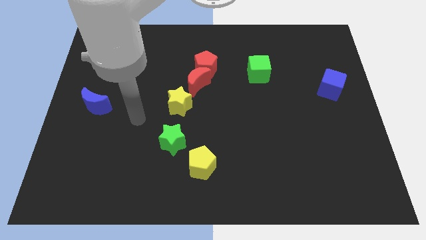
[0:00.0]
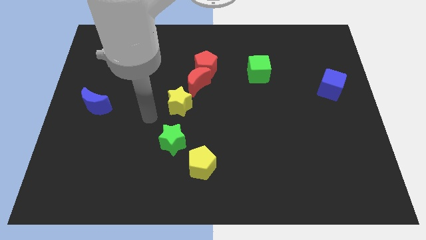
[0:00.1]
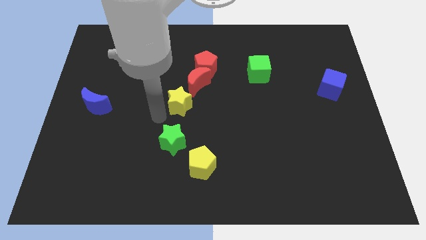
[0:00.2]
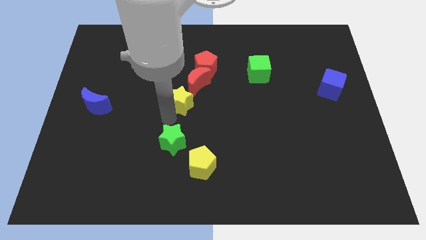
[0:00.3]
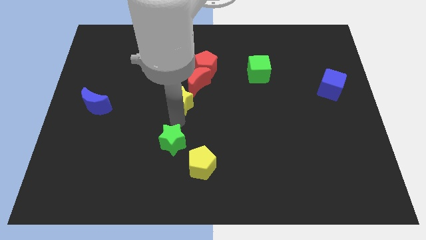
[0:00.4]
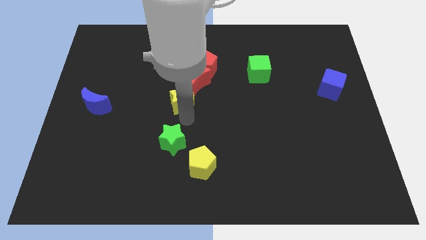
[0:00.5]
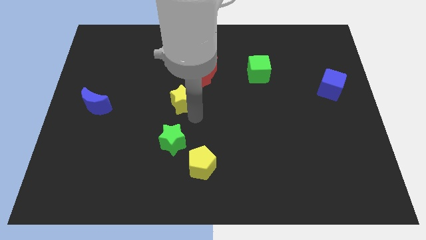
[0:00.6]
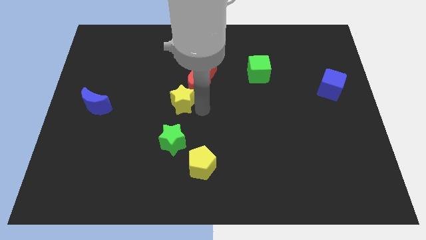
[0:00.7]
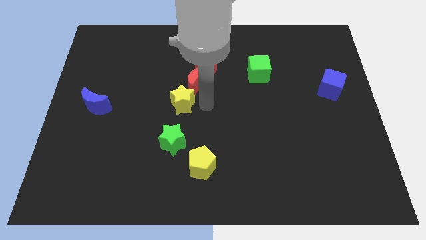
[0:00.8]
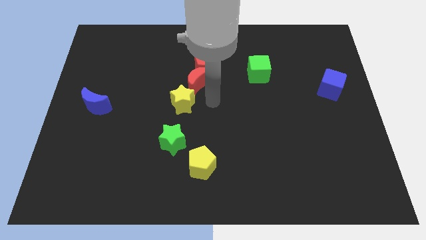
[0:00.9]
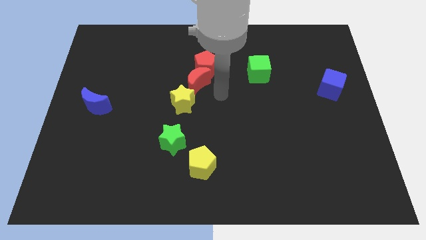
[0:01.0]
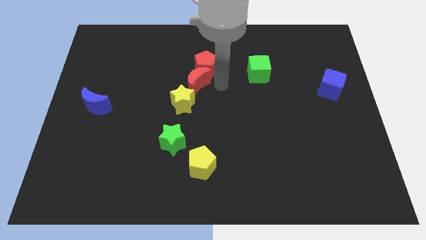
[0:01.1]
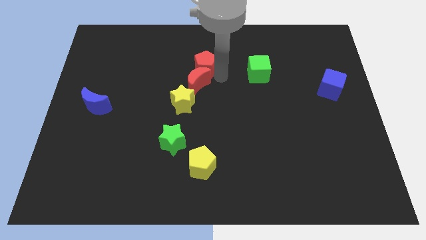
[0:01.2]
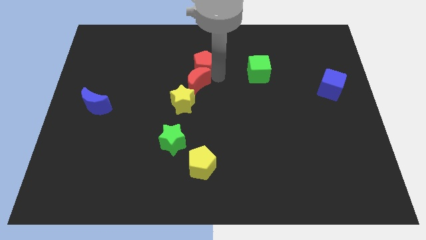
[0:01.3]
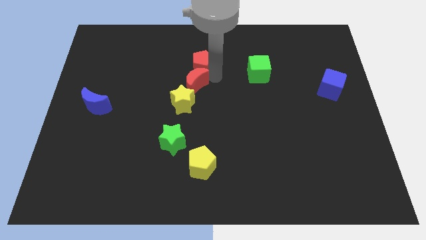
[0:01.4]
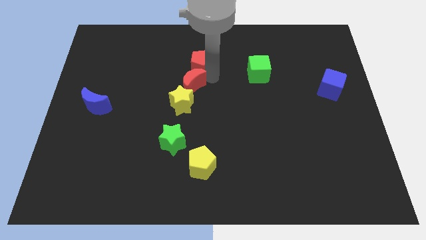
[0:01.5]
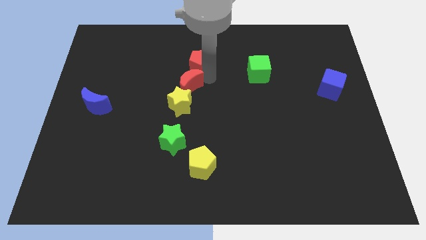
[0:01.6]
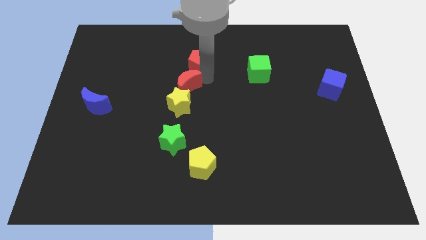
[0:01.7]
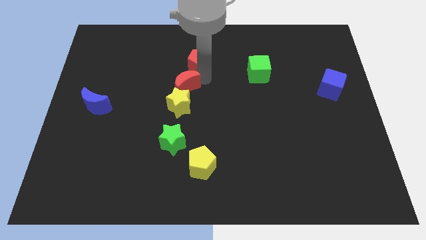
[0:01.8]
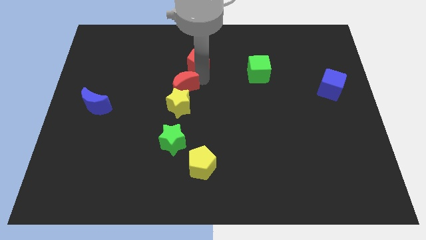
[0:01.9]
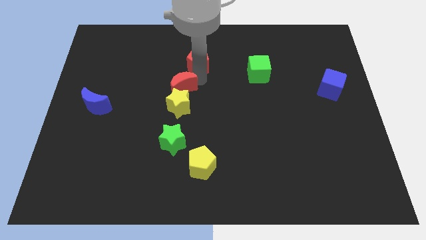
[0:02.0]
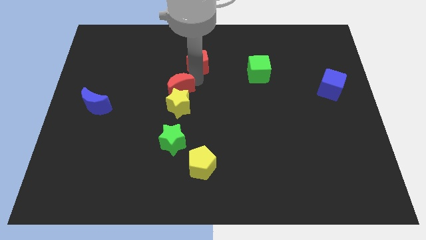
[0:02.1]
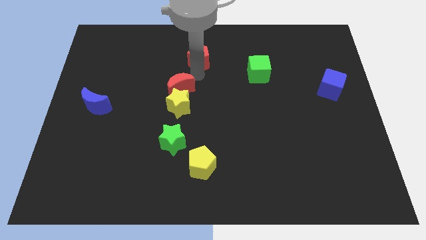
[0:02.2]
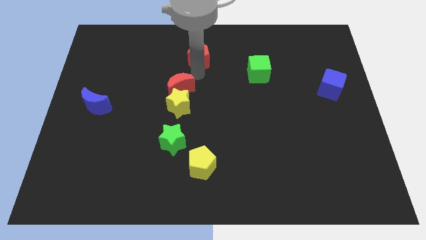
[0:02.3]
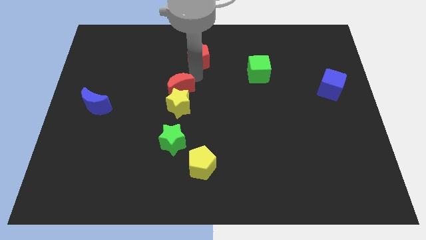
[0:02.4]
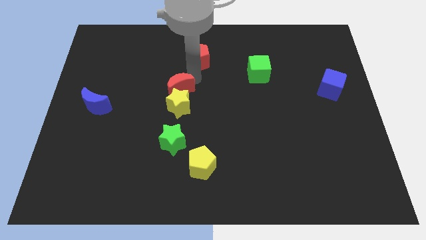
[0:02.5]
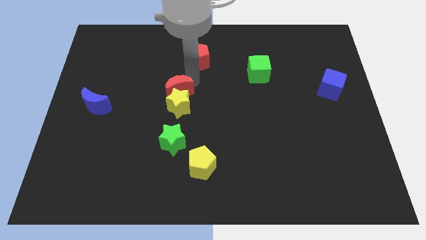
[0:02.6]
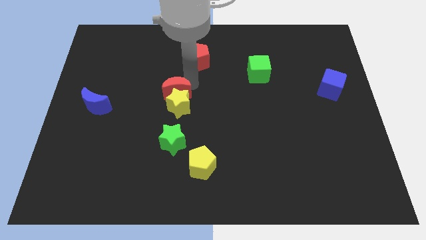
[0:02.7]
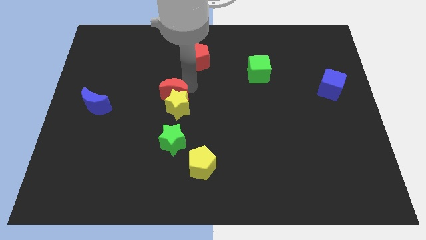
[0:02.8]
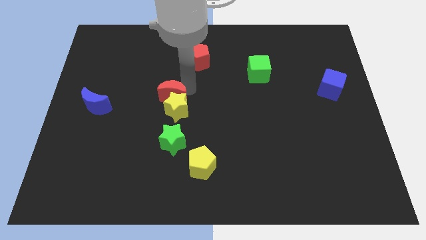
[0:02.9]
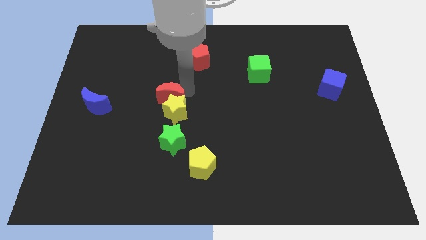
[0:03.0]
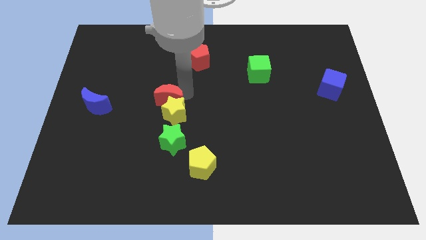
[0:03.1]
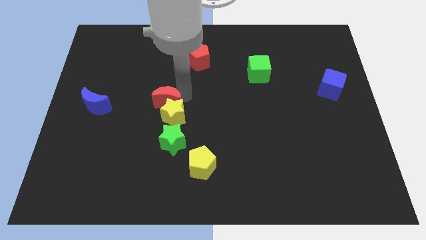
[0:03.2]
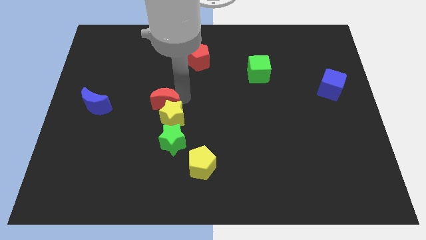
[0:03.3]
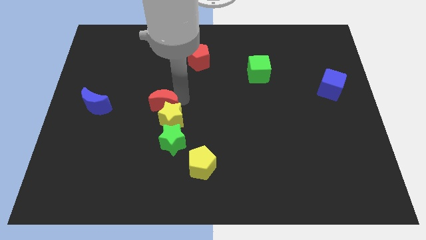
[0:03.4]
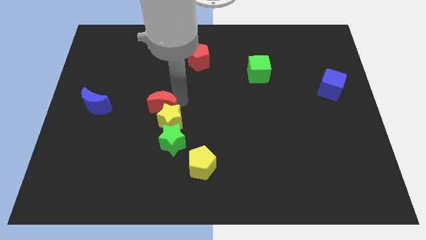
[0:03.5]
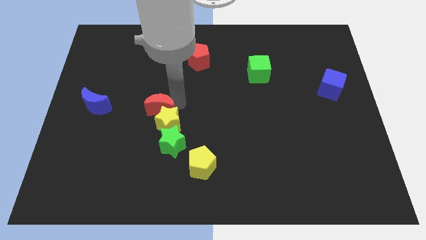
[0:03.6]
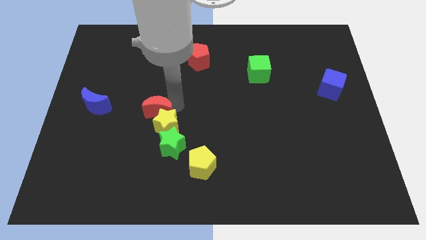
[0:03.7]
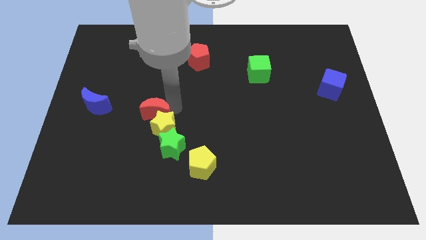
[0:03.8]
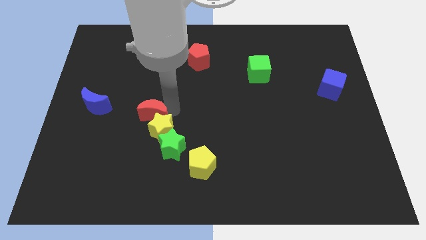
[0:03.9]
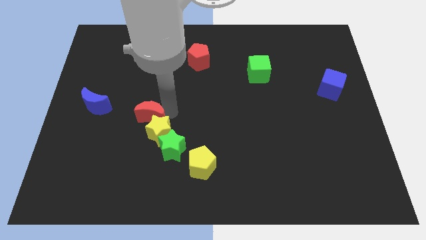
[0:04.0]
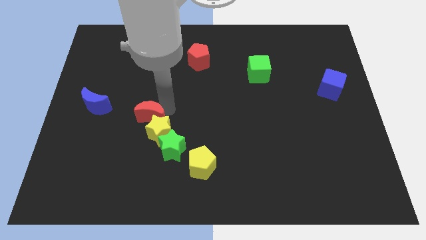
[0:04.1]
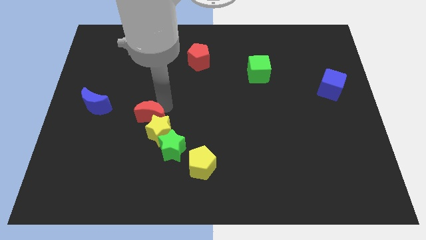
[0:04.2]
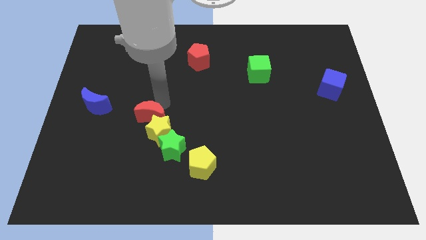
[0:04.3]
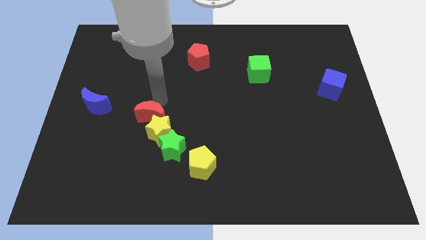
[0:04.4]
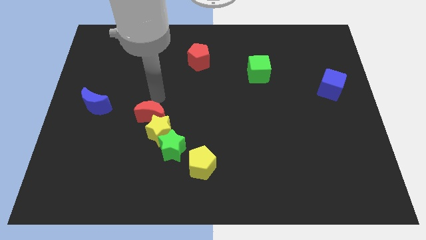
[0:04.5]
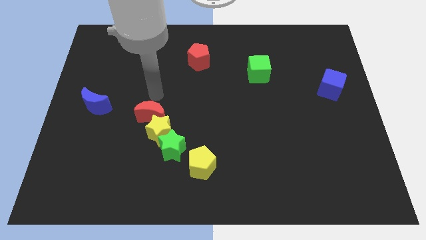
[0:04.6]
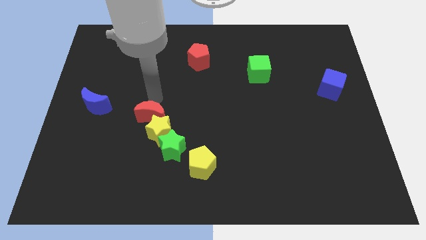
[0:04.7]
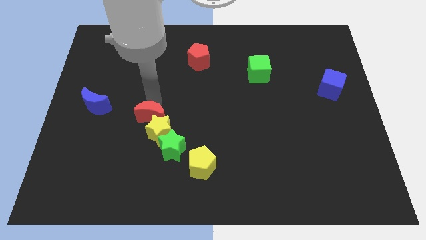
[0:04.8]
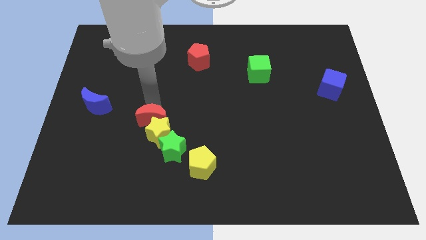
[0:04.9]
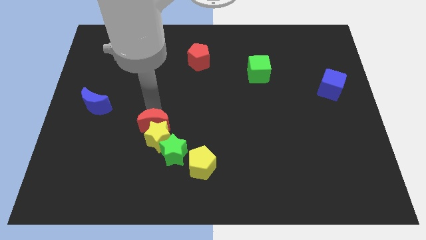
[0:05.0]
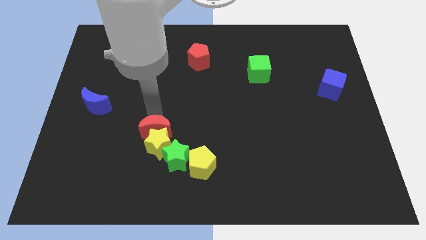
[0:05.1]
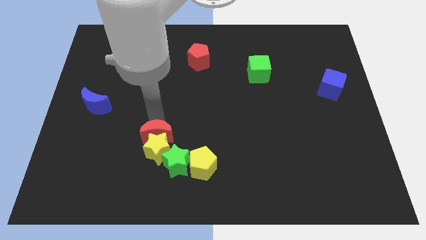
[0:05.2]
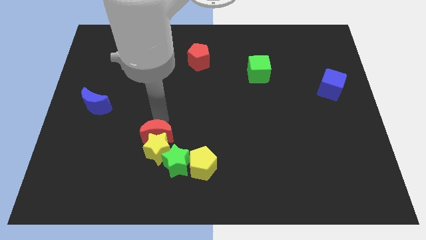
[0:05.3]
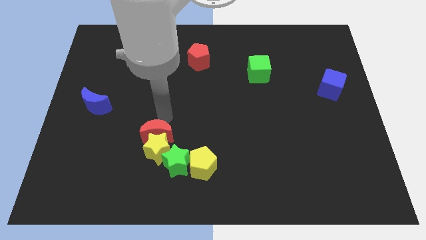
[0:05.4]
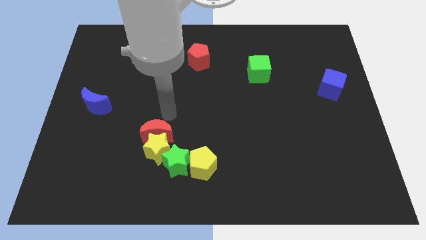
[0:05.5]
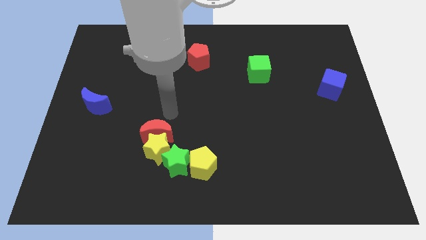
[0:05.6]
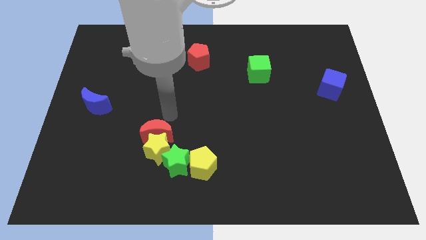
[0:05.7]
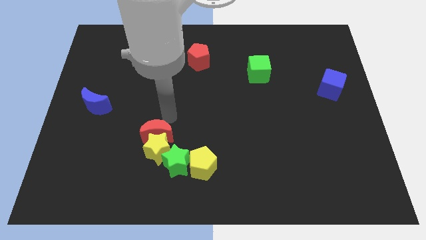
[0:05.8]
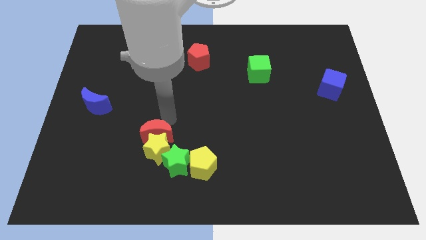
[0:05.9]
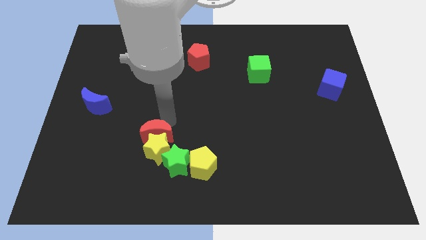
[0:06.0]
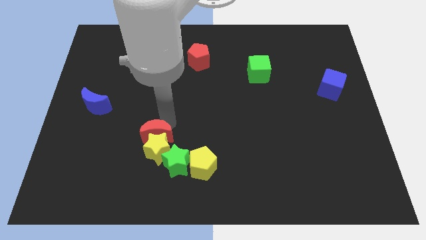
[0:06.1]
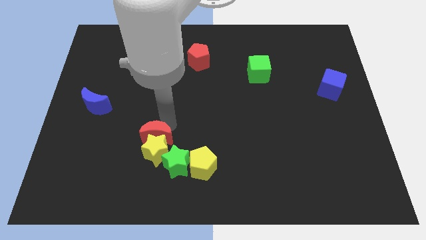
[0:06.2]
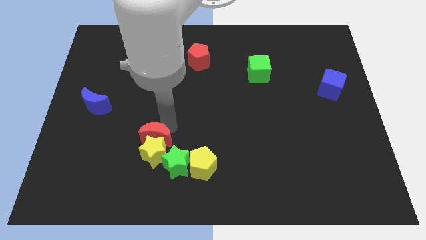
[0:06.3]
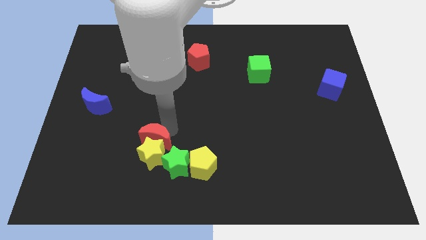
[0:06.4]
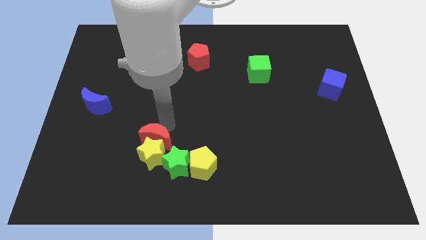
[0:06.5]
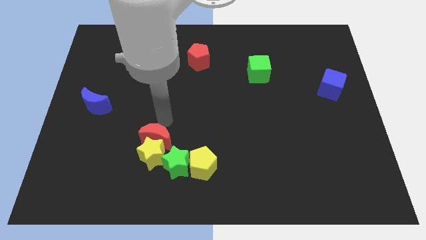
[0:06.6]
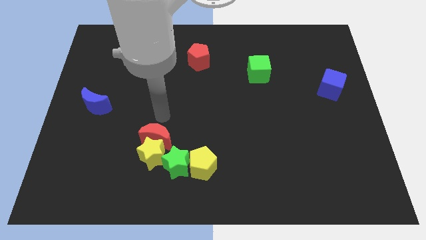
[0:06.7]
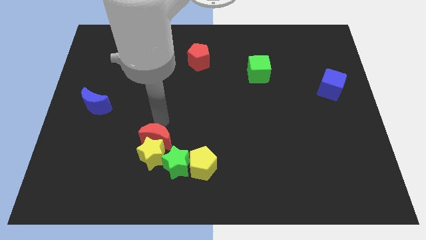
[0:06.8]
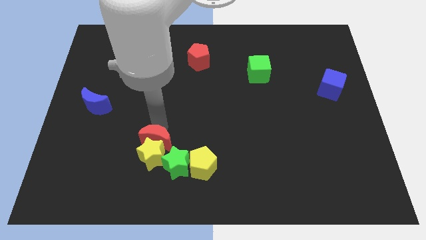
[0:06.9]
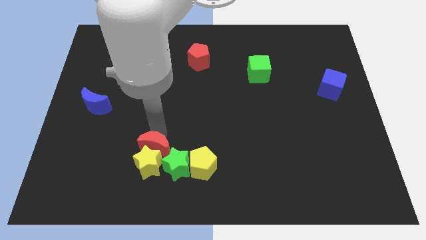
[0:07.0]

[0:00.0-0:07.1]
put the red moon to the left side of the yellow pentagon
